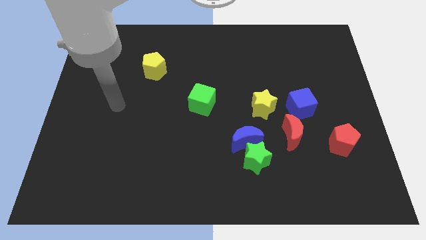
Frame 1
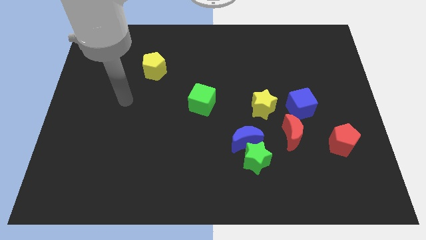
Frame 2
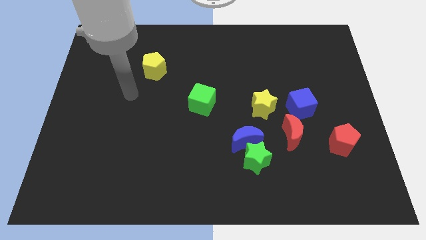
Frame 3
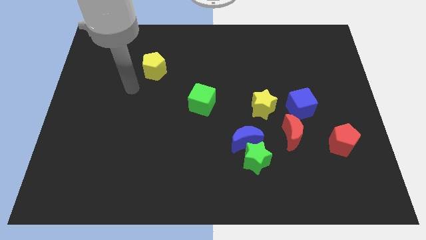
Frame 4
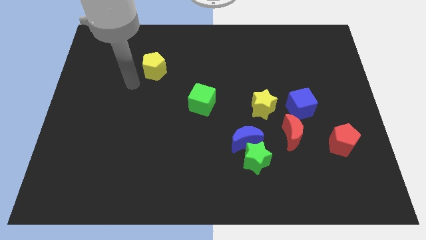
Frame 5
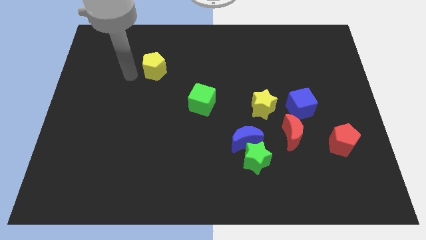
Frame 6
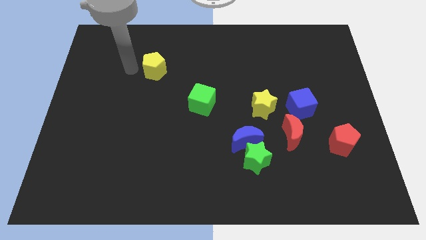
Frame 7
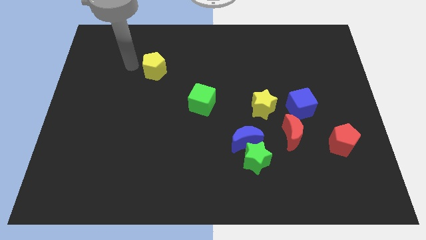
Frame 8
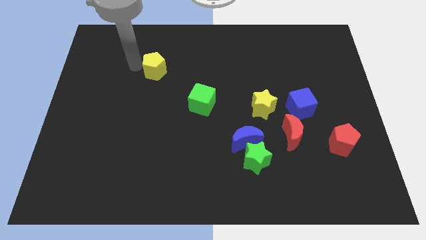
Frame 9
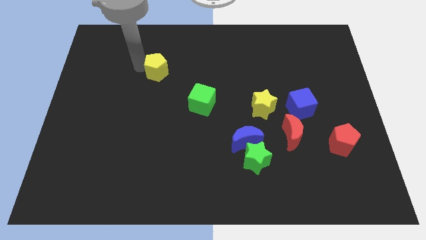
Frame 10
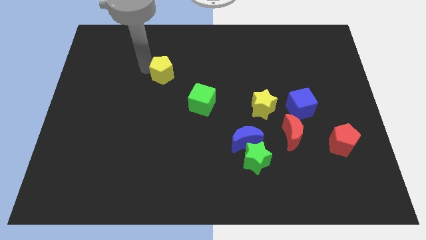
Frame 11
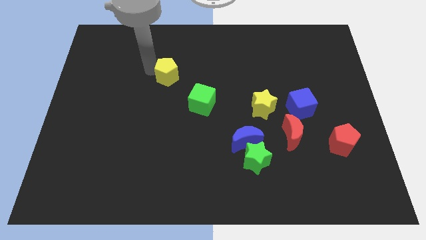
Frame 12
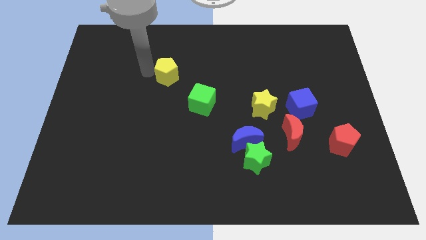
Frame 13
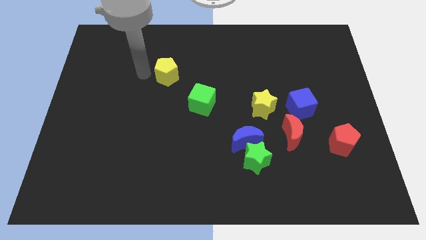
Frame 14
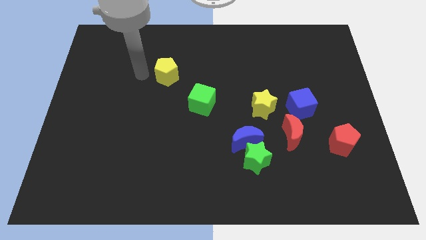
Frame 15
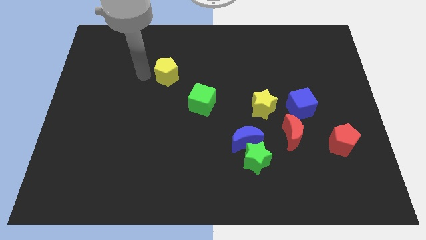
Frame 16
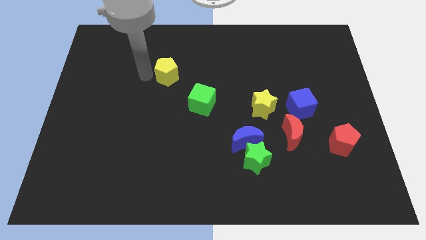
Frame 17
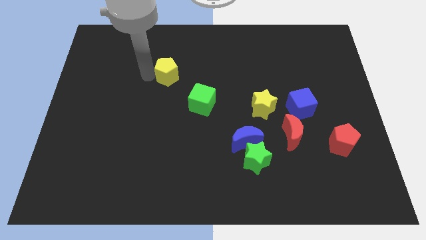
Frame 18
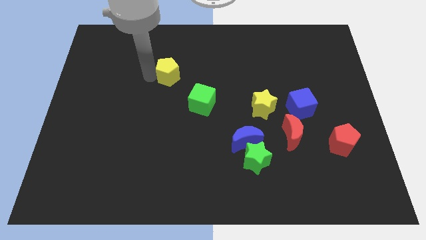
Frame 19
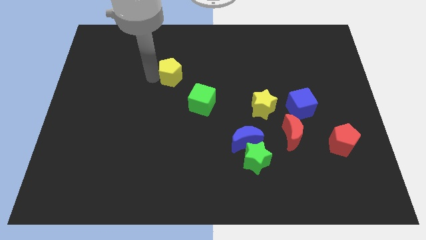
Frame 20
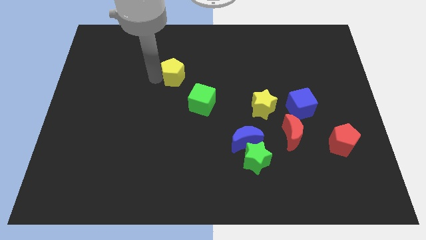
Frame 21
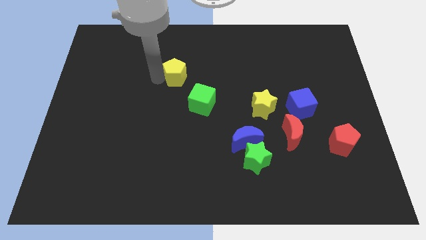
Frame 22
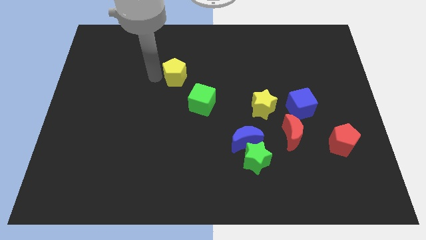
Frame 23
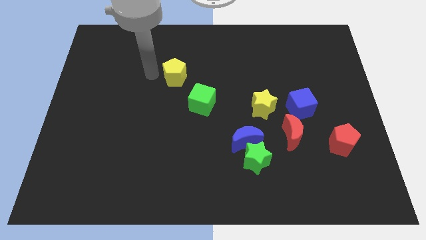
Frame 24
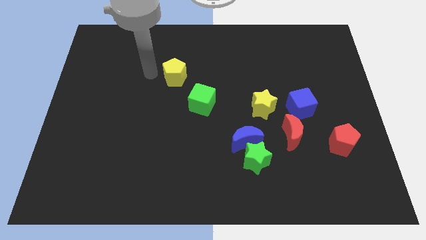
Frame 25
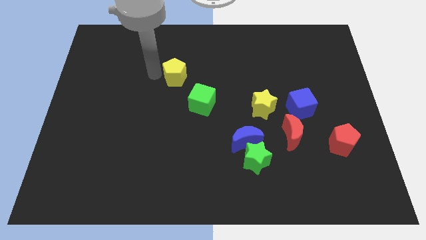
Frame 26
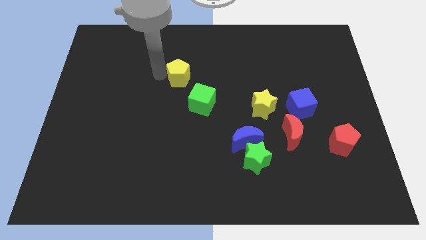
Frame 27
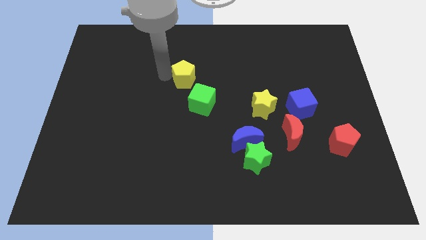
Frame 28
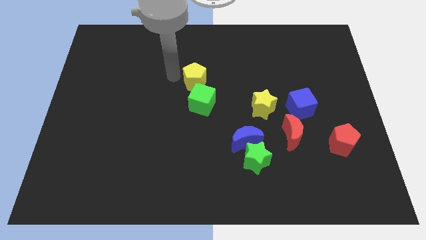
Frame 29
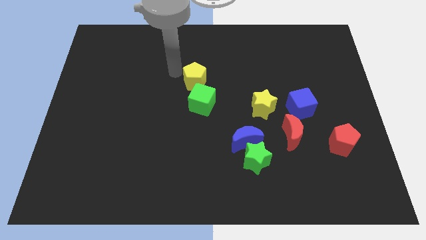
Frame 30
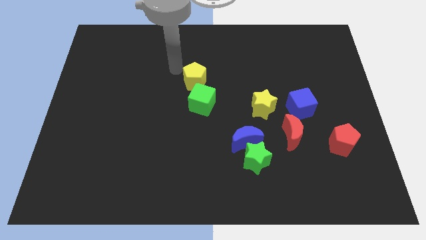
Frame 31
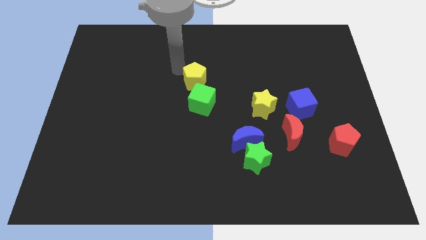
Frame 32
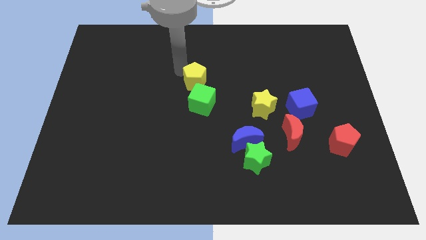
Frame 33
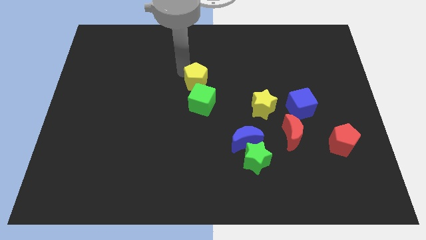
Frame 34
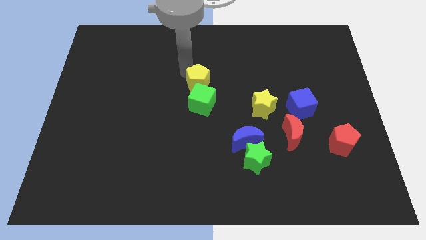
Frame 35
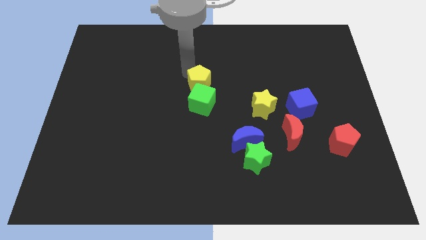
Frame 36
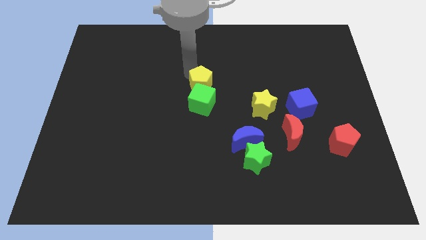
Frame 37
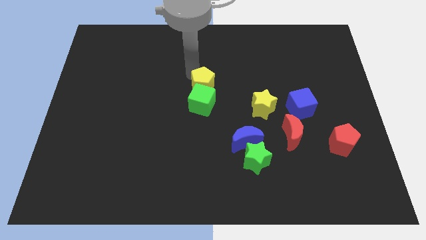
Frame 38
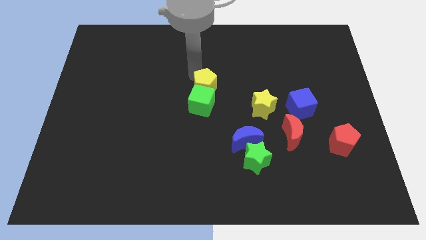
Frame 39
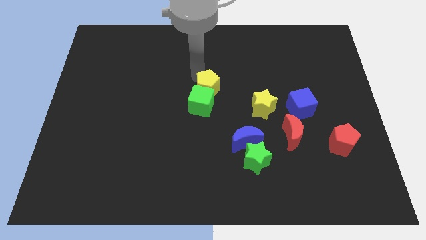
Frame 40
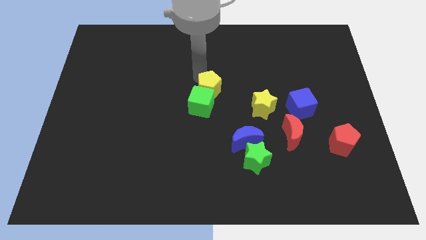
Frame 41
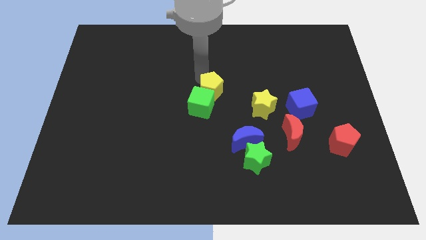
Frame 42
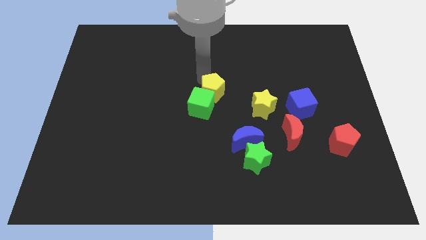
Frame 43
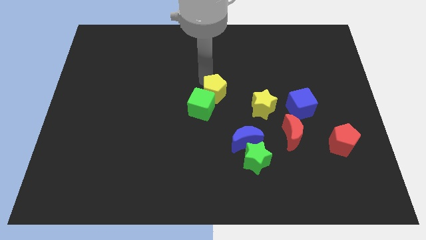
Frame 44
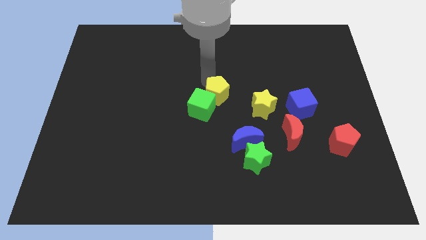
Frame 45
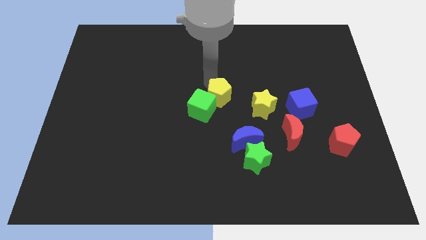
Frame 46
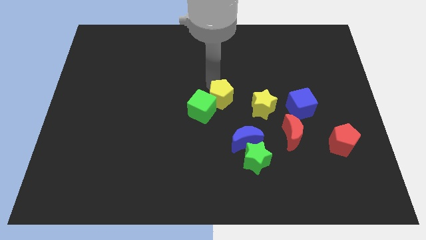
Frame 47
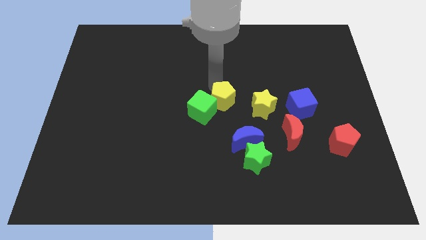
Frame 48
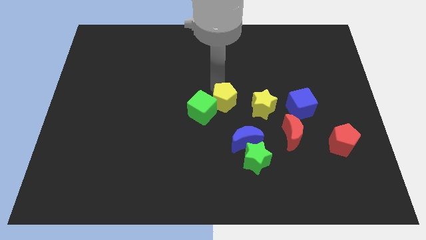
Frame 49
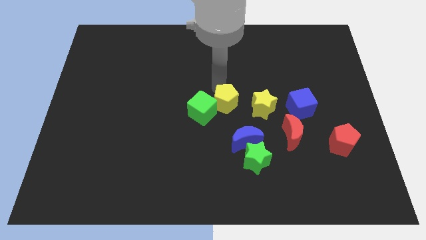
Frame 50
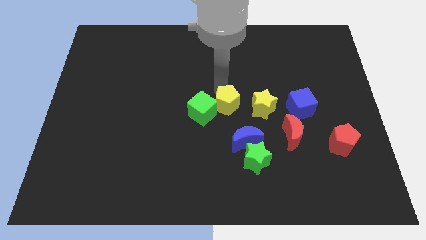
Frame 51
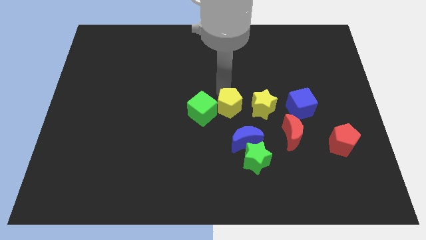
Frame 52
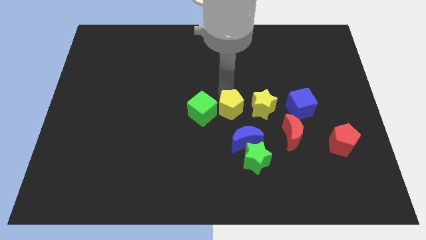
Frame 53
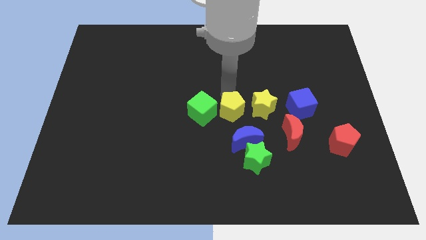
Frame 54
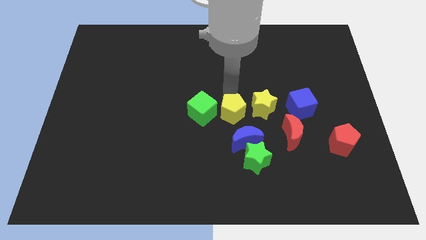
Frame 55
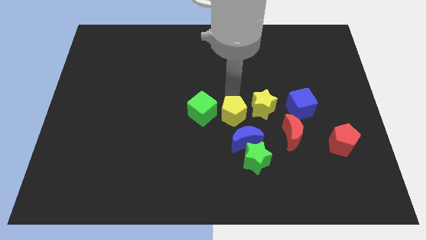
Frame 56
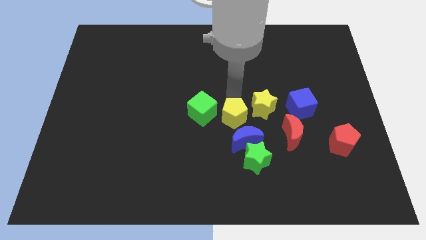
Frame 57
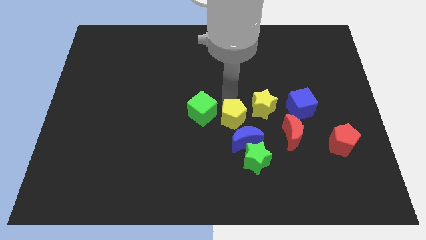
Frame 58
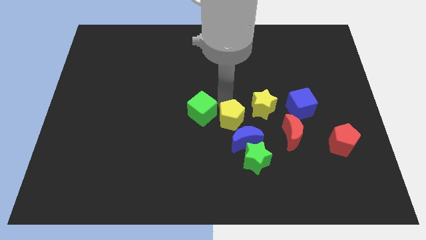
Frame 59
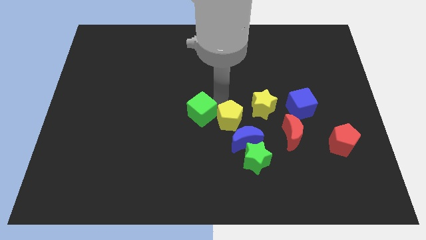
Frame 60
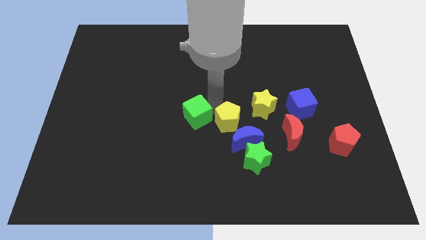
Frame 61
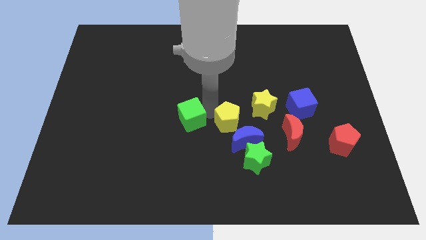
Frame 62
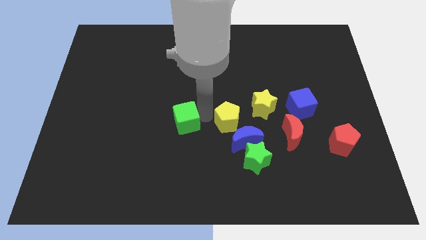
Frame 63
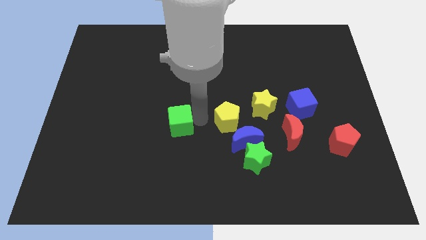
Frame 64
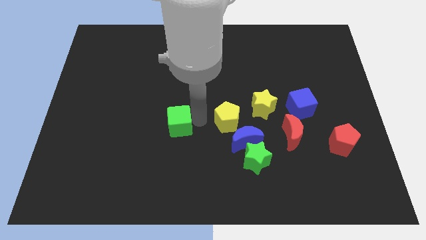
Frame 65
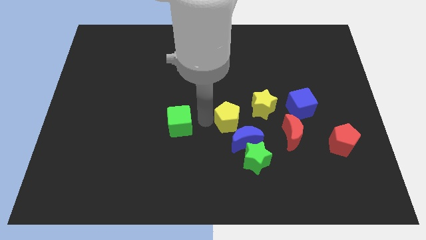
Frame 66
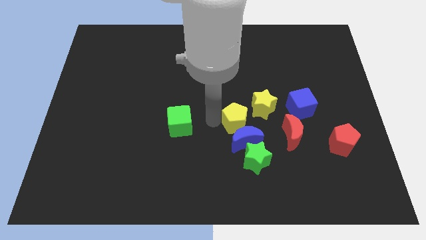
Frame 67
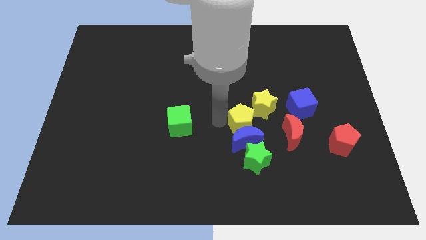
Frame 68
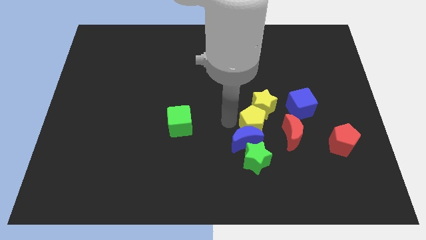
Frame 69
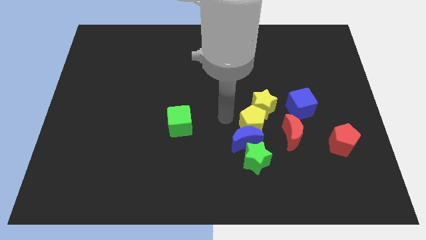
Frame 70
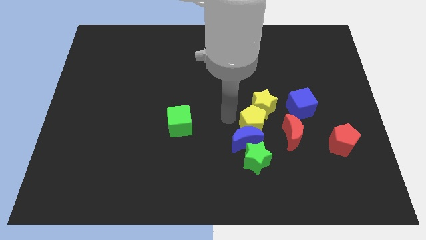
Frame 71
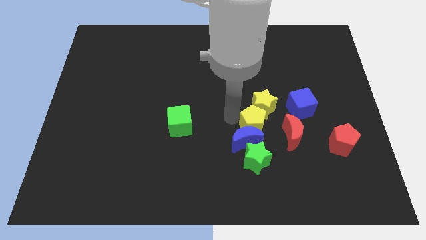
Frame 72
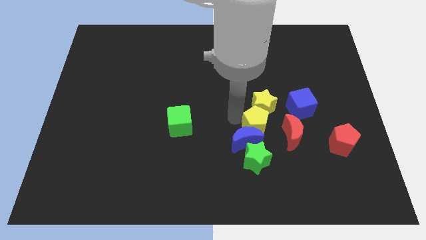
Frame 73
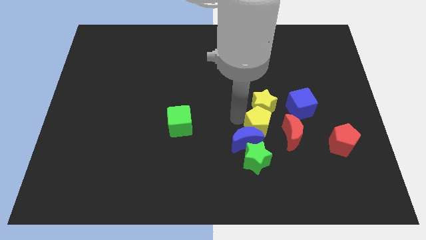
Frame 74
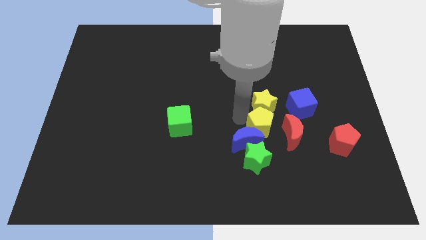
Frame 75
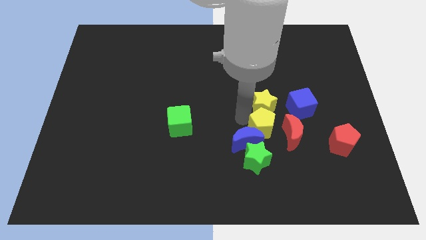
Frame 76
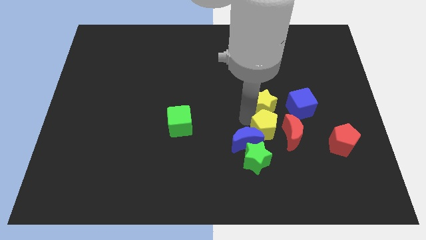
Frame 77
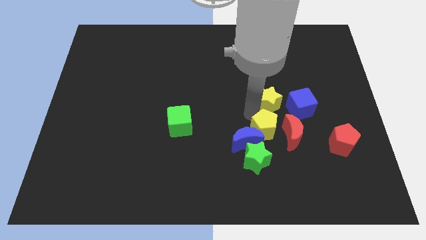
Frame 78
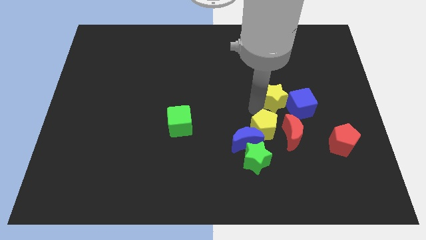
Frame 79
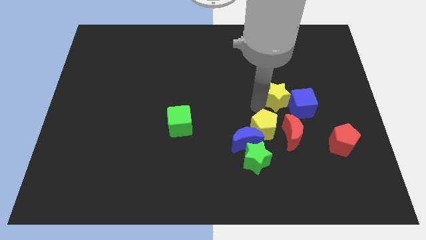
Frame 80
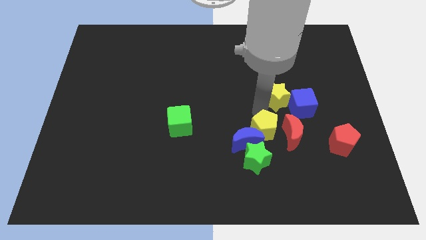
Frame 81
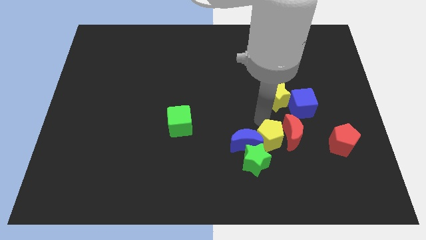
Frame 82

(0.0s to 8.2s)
move the yellow pentagon to the bottom right of the blue moon

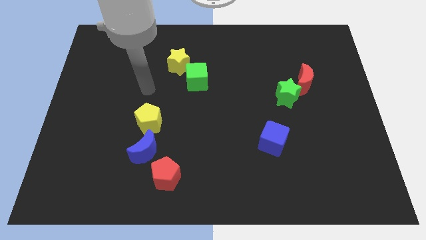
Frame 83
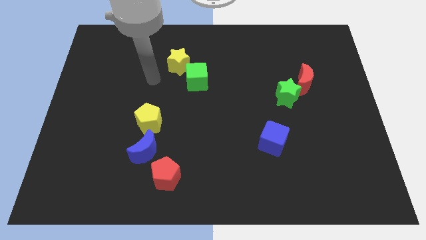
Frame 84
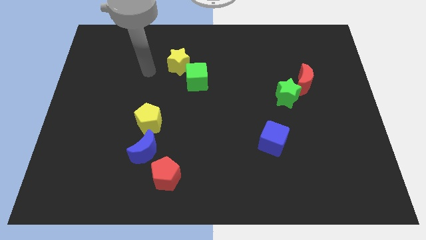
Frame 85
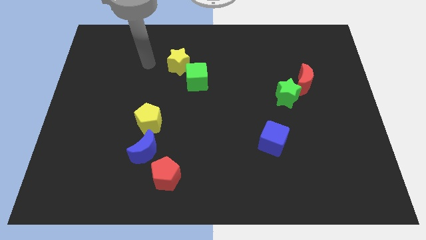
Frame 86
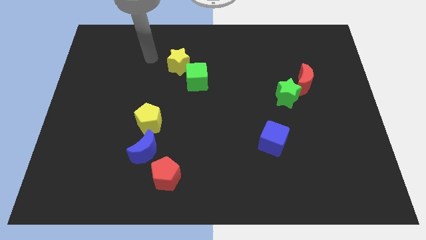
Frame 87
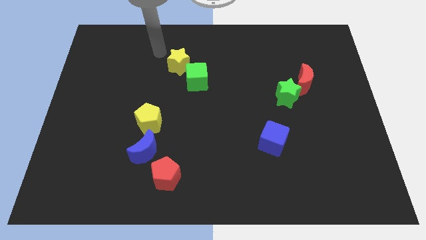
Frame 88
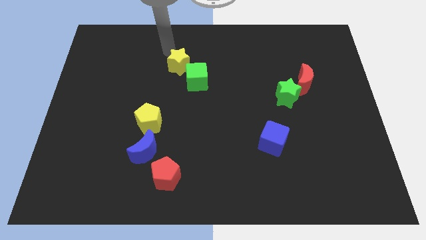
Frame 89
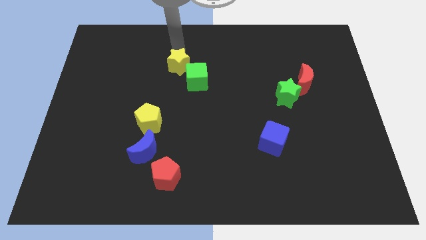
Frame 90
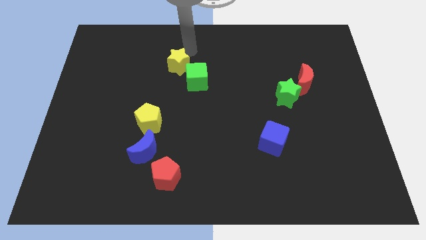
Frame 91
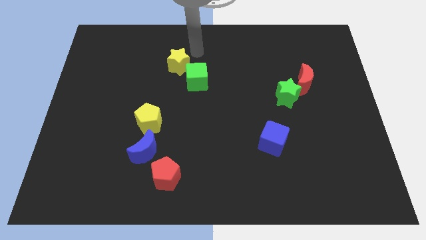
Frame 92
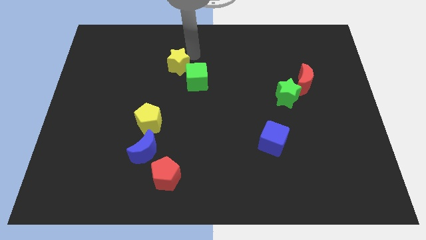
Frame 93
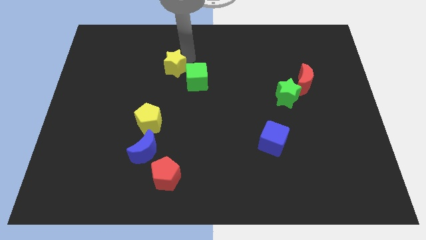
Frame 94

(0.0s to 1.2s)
put the yellow star to the left side of the green cube
